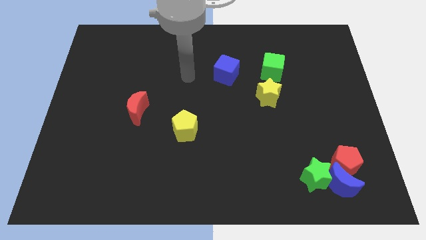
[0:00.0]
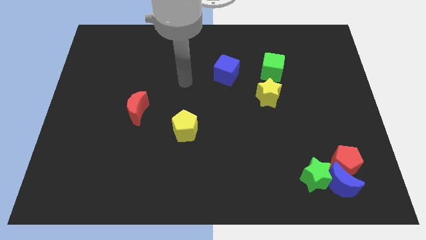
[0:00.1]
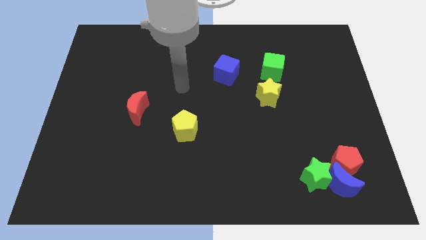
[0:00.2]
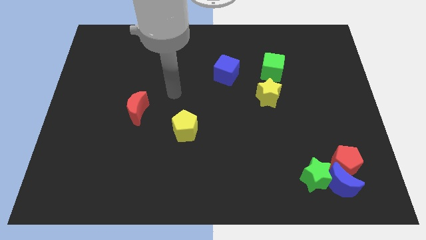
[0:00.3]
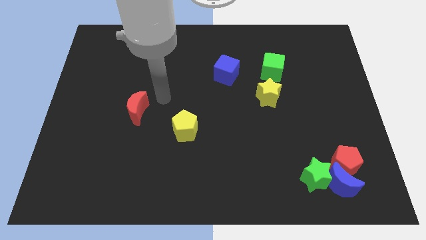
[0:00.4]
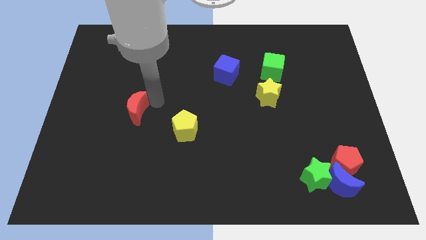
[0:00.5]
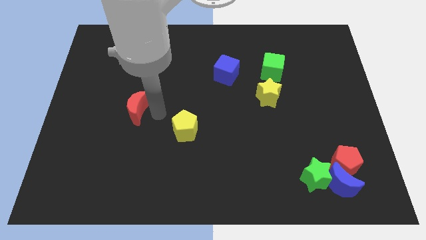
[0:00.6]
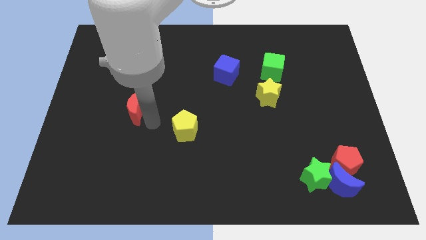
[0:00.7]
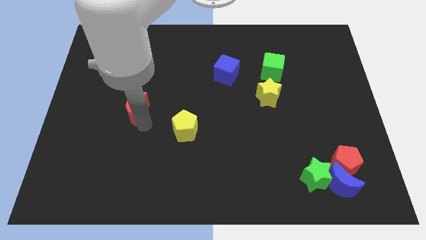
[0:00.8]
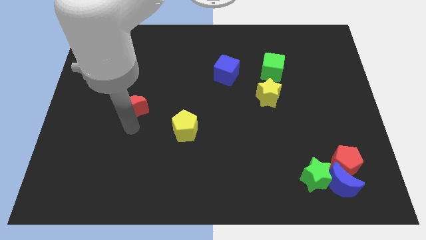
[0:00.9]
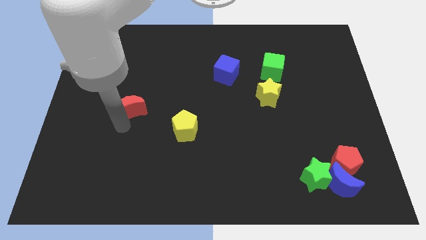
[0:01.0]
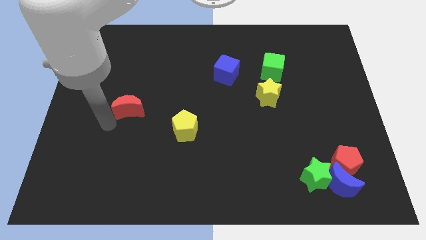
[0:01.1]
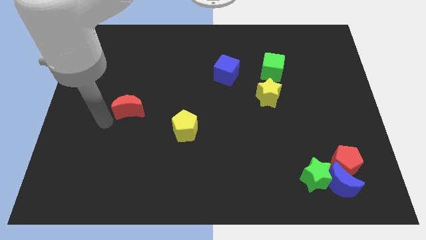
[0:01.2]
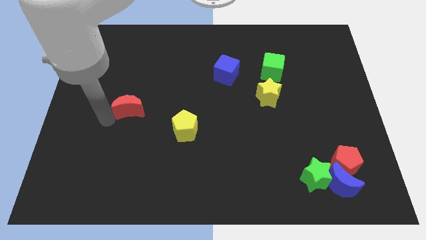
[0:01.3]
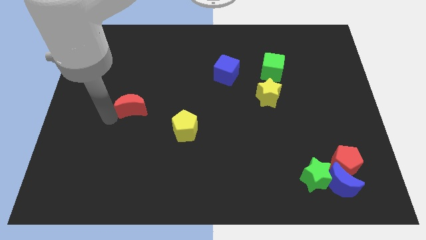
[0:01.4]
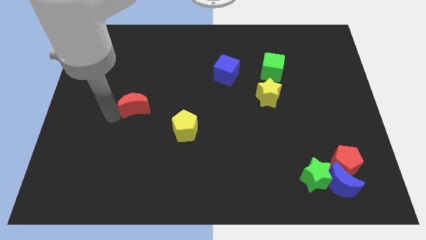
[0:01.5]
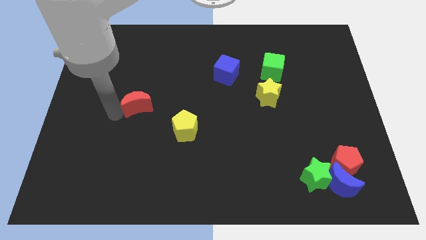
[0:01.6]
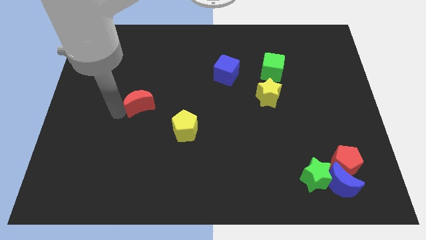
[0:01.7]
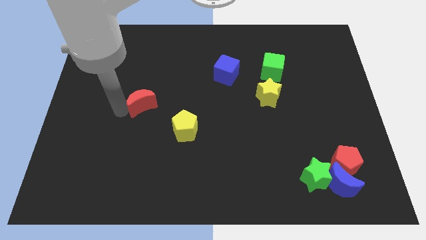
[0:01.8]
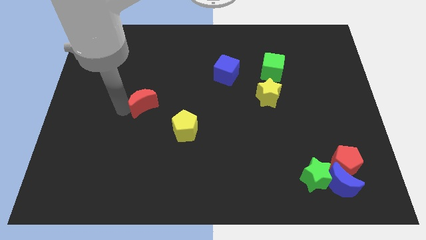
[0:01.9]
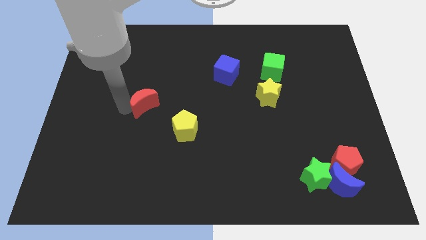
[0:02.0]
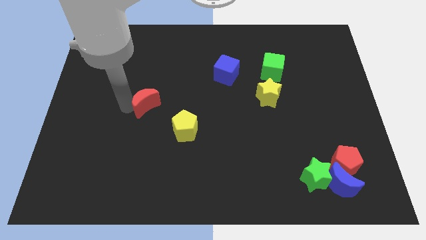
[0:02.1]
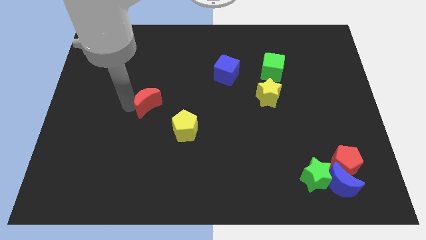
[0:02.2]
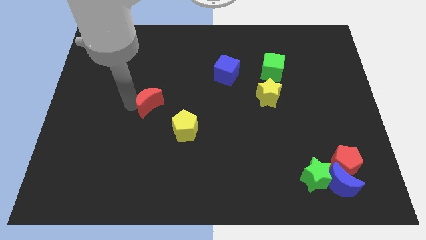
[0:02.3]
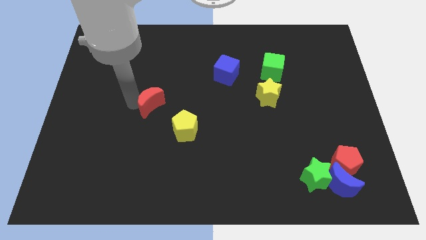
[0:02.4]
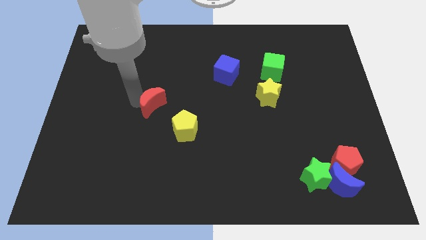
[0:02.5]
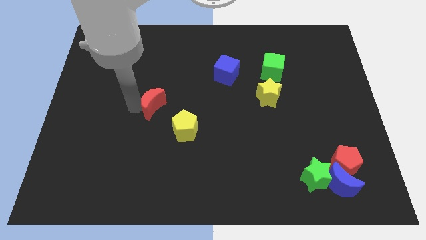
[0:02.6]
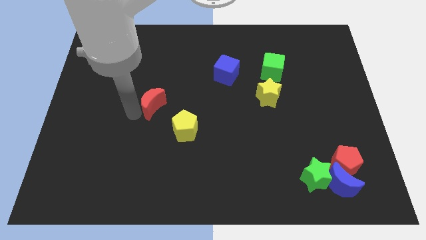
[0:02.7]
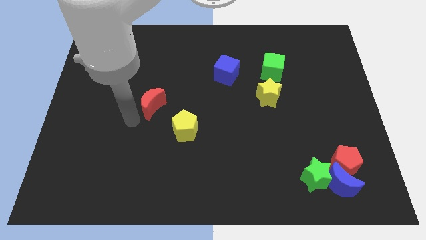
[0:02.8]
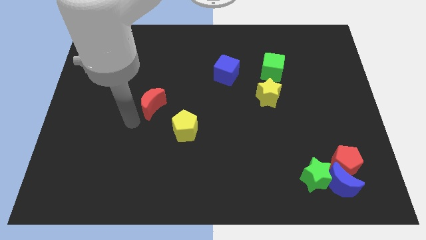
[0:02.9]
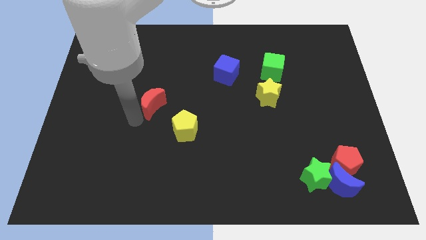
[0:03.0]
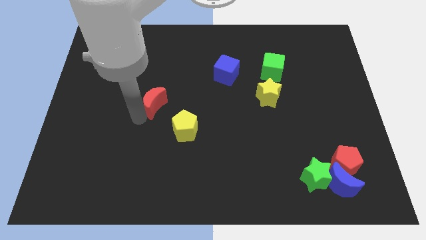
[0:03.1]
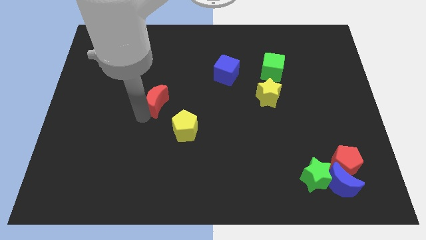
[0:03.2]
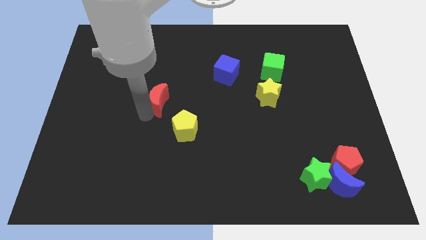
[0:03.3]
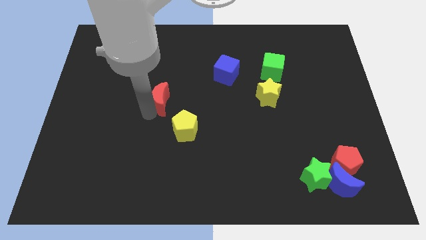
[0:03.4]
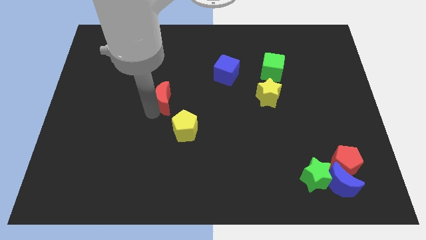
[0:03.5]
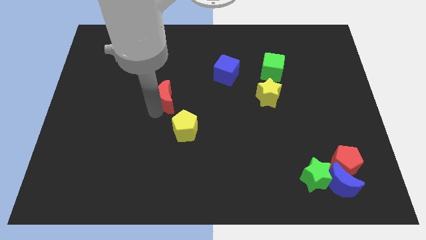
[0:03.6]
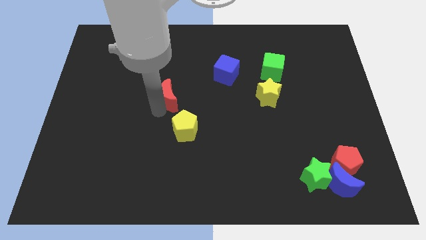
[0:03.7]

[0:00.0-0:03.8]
slide the red moon diagonally up and to the right somewhat

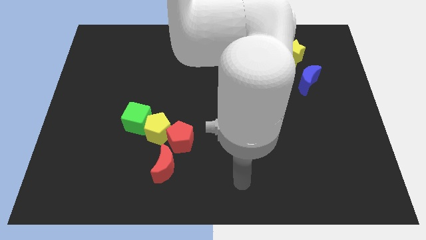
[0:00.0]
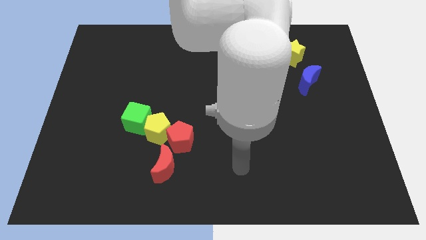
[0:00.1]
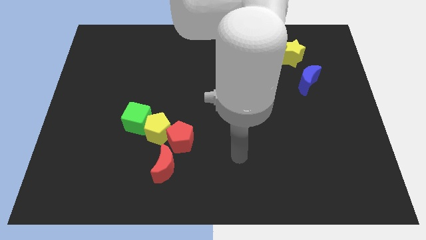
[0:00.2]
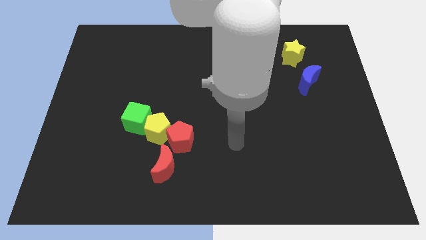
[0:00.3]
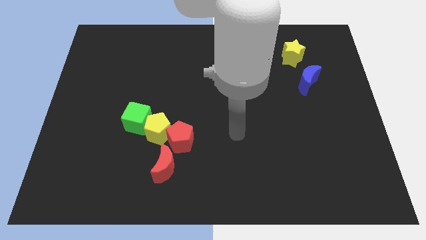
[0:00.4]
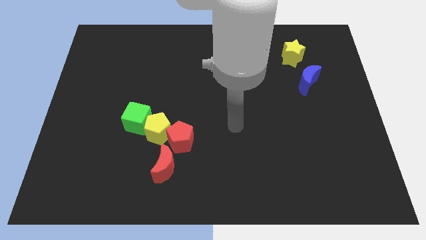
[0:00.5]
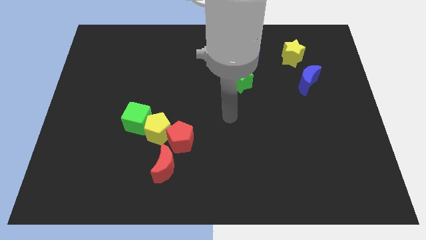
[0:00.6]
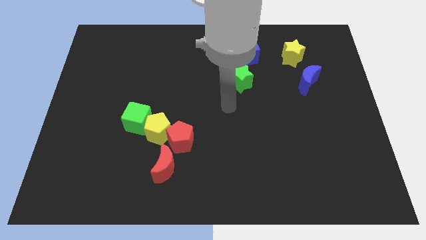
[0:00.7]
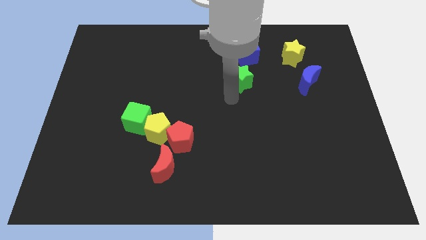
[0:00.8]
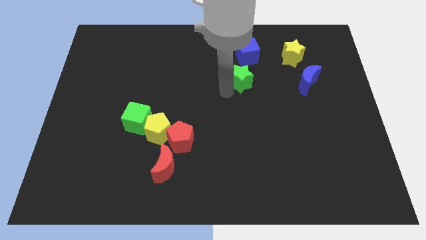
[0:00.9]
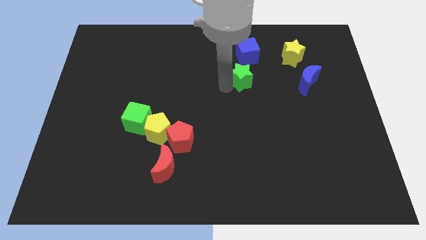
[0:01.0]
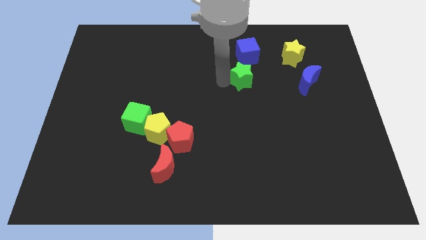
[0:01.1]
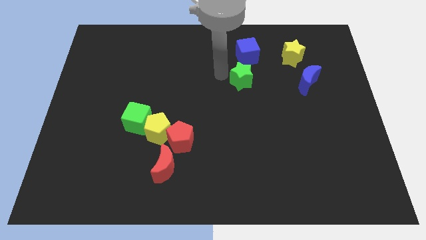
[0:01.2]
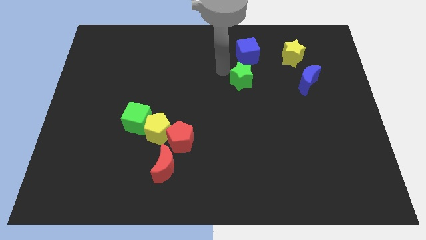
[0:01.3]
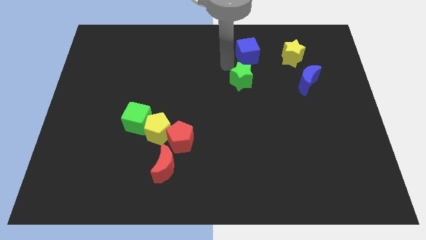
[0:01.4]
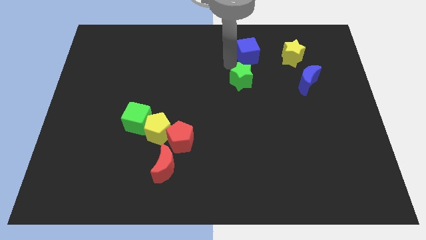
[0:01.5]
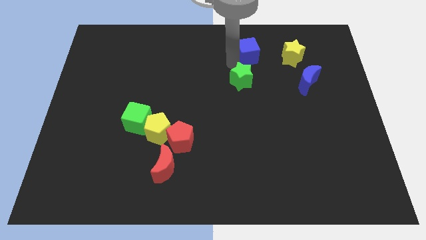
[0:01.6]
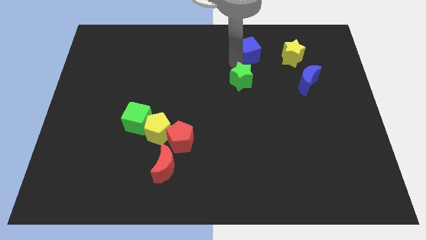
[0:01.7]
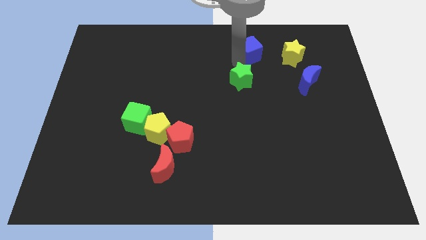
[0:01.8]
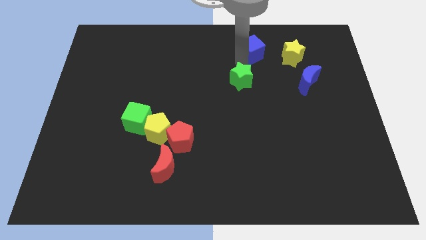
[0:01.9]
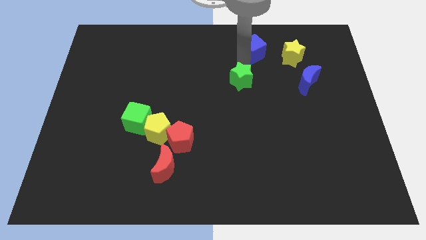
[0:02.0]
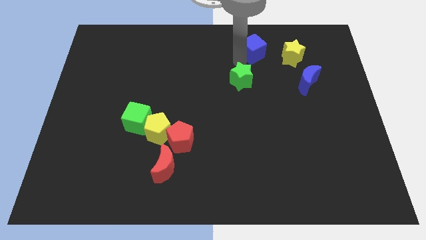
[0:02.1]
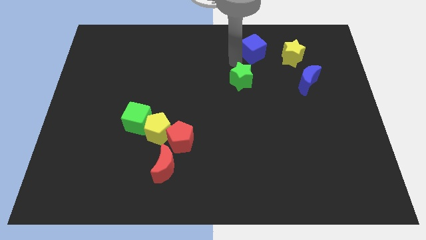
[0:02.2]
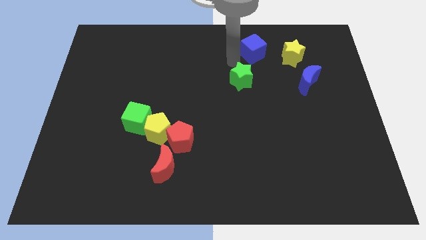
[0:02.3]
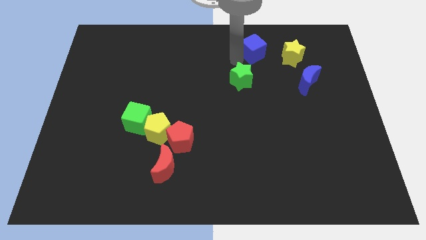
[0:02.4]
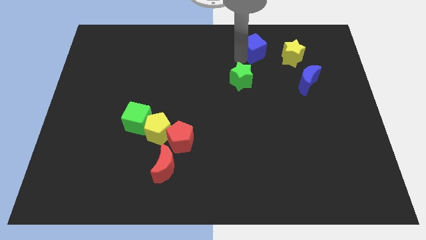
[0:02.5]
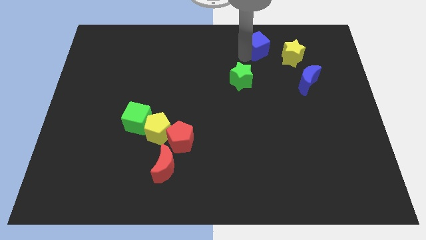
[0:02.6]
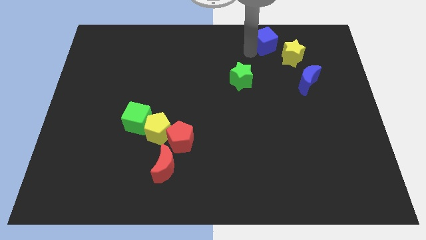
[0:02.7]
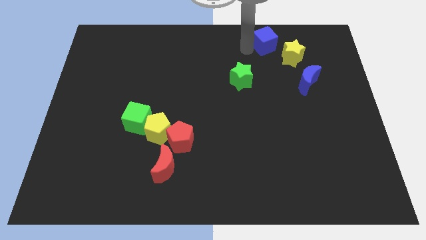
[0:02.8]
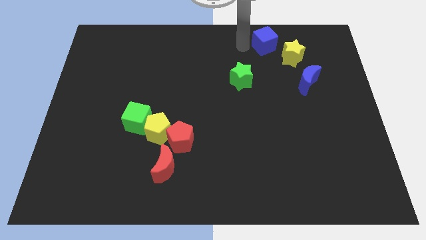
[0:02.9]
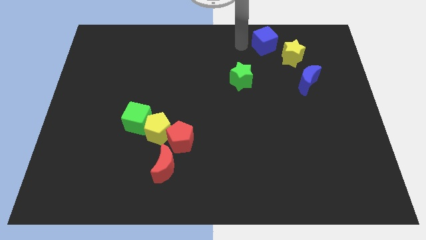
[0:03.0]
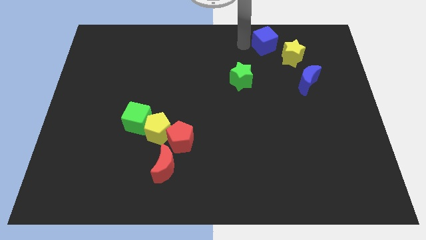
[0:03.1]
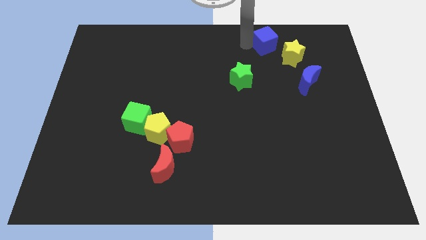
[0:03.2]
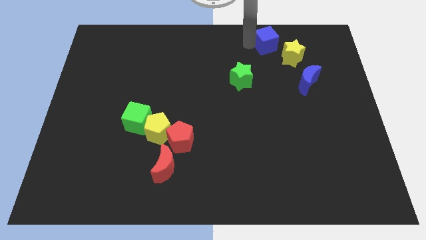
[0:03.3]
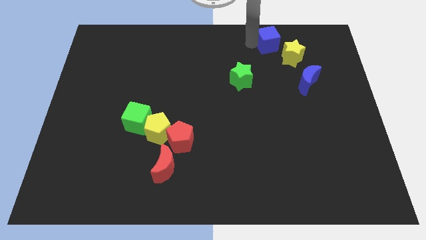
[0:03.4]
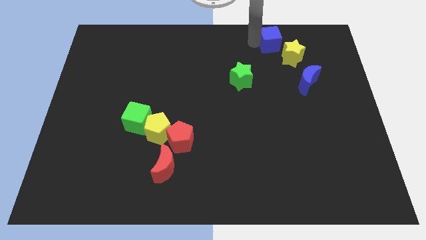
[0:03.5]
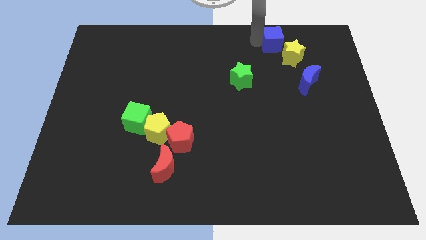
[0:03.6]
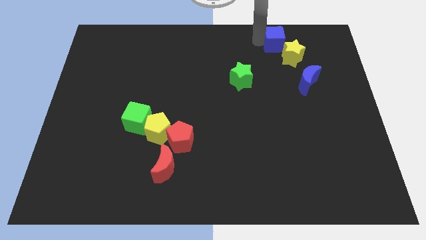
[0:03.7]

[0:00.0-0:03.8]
push the blue cube slightly right

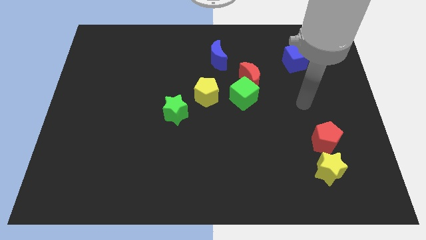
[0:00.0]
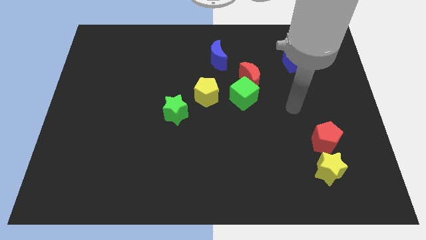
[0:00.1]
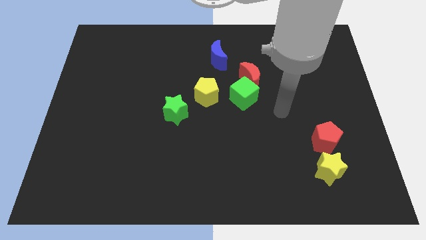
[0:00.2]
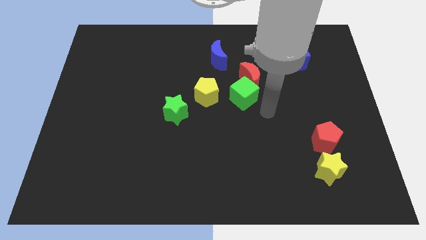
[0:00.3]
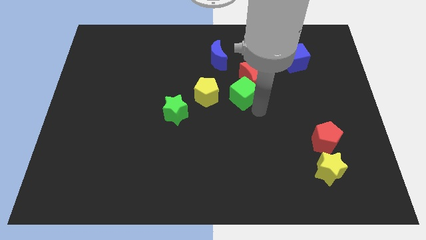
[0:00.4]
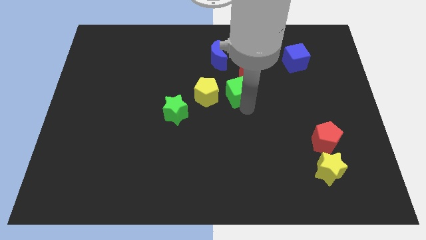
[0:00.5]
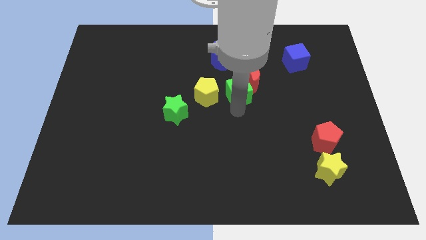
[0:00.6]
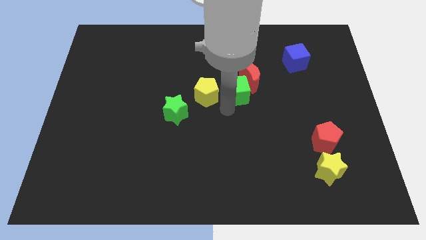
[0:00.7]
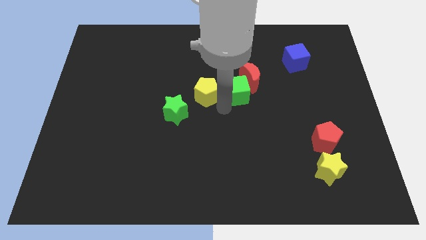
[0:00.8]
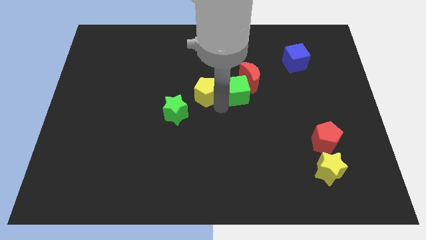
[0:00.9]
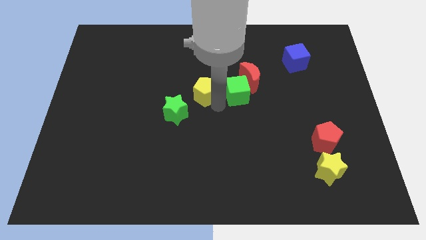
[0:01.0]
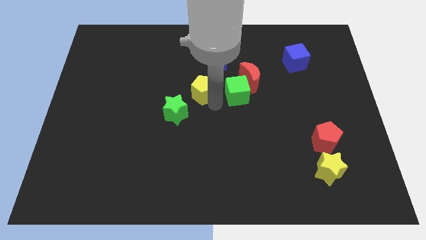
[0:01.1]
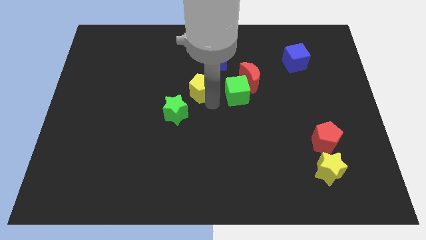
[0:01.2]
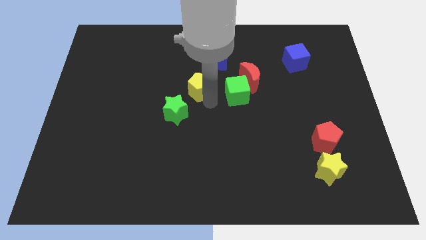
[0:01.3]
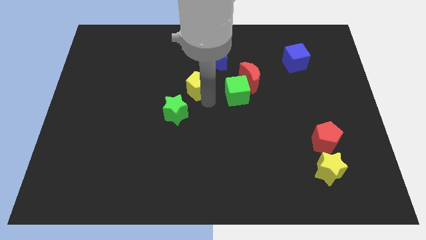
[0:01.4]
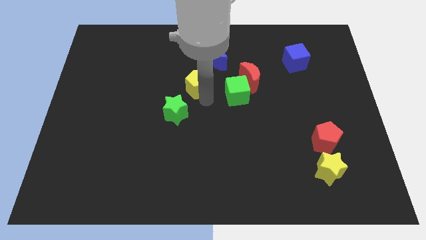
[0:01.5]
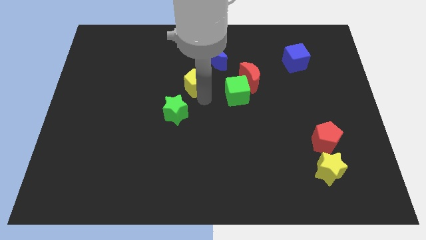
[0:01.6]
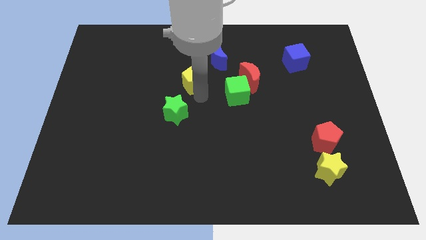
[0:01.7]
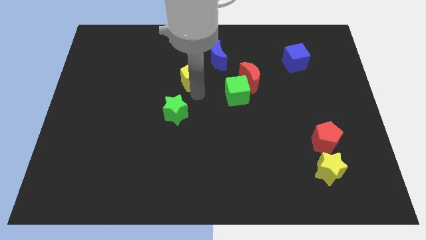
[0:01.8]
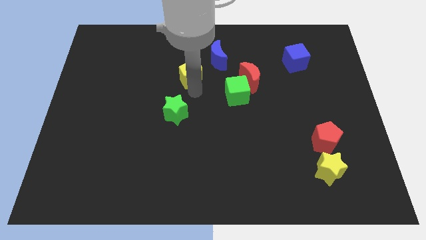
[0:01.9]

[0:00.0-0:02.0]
push the yellow pentagon up and left somewhat
